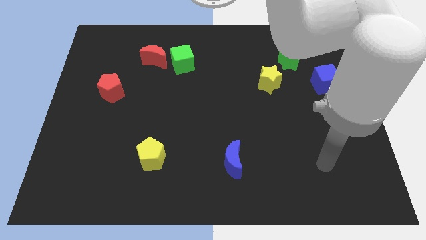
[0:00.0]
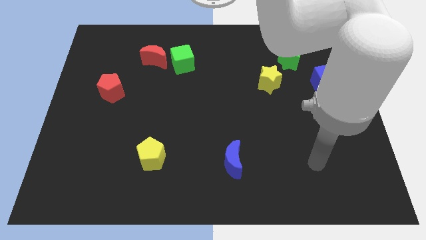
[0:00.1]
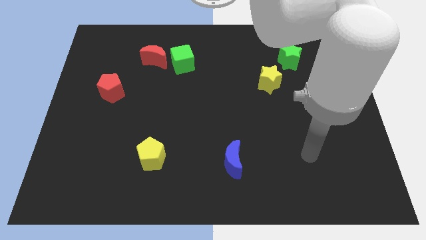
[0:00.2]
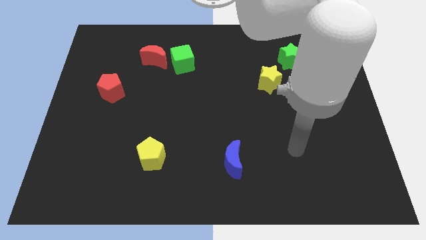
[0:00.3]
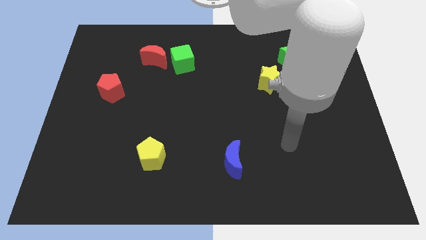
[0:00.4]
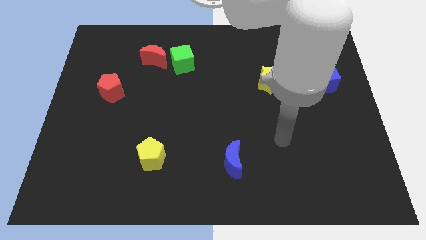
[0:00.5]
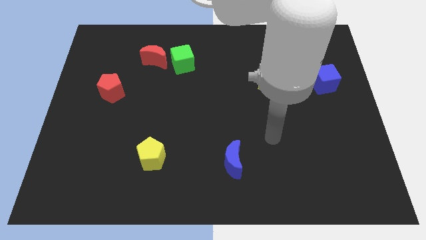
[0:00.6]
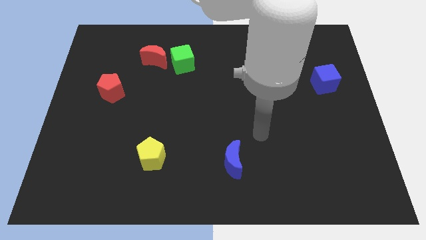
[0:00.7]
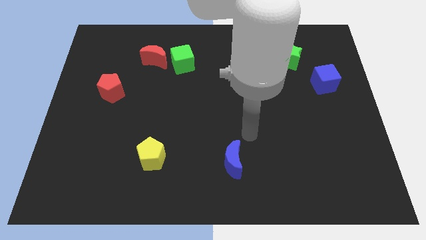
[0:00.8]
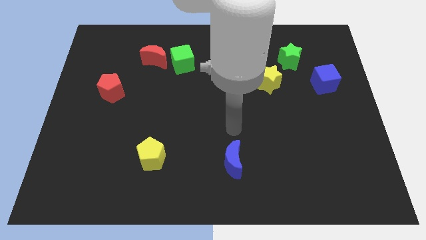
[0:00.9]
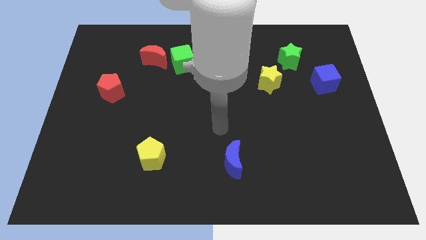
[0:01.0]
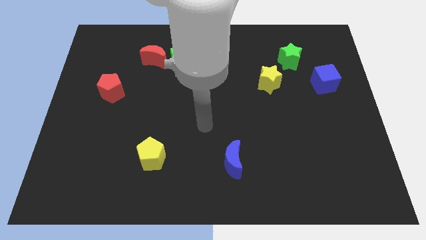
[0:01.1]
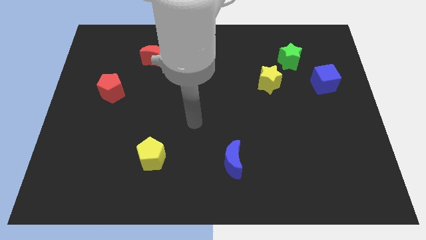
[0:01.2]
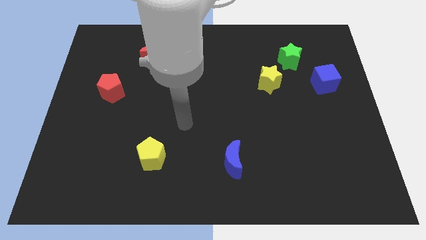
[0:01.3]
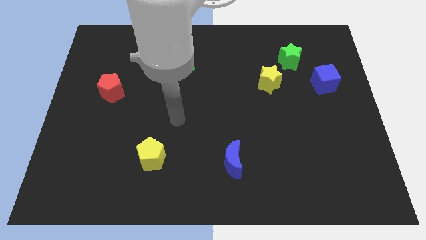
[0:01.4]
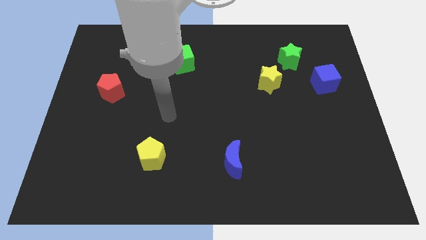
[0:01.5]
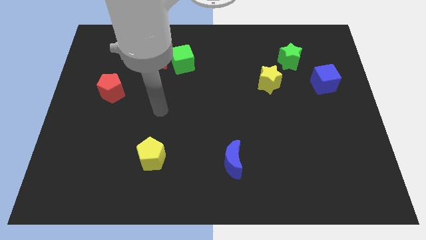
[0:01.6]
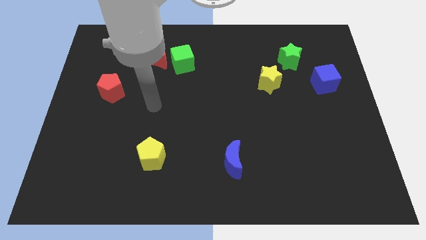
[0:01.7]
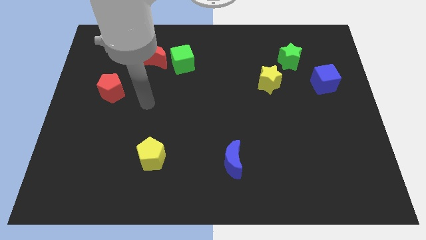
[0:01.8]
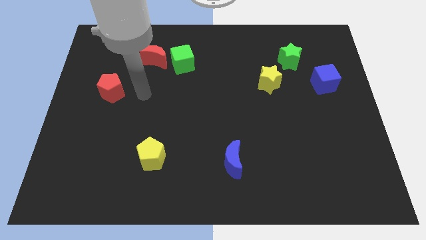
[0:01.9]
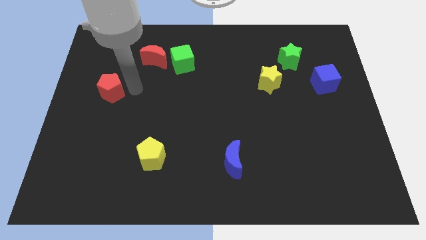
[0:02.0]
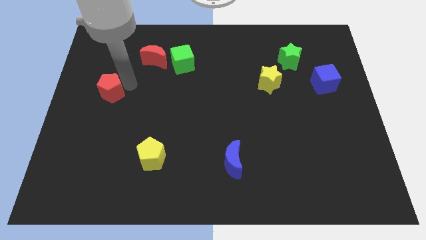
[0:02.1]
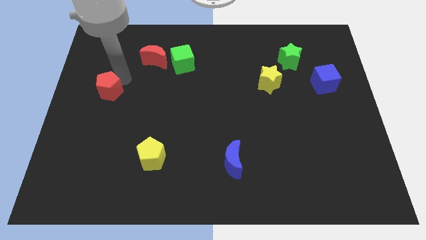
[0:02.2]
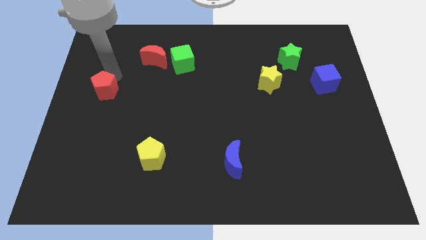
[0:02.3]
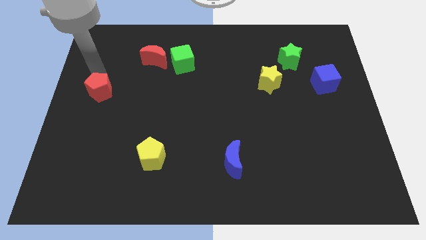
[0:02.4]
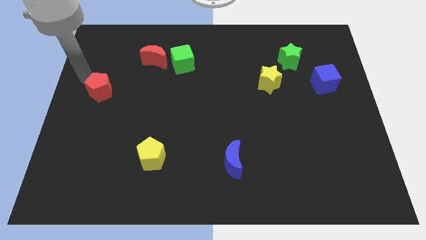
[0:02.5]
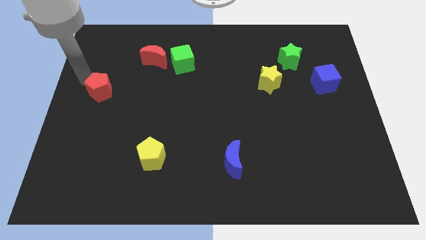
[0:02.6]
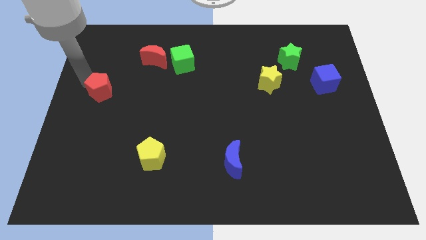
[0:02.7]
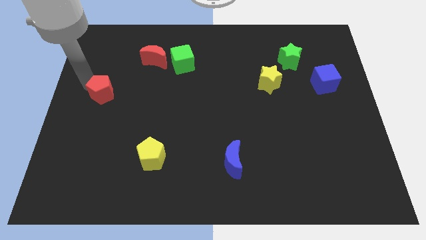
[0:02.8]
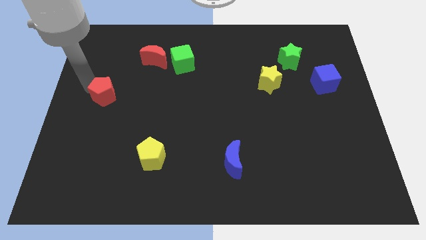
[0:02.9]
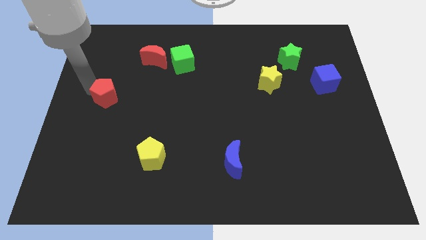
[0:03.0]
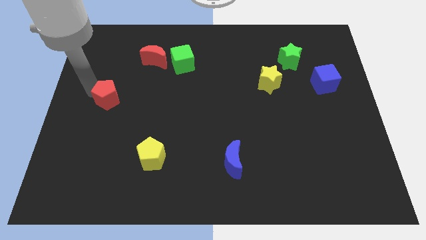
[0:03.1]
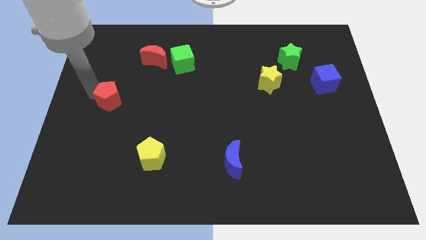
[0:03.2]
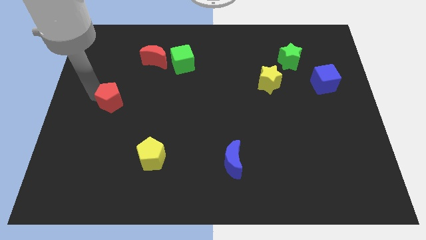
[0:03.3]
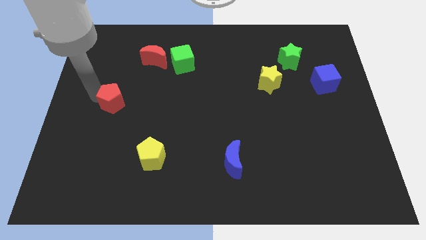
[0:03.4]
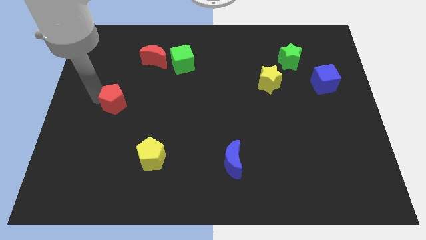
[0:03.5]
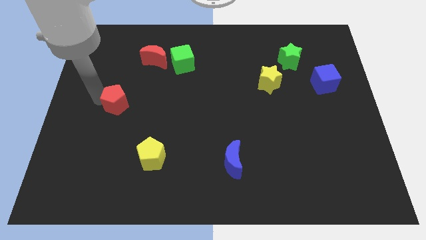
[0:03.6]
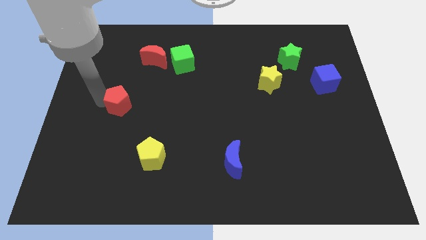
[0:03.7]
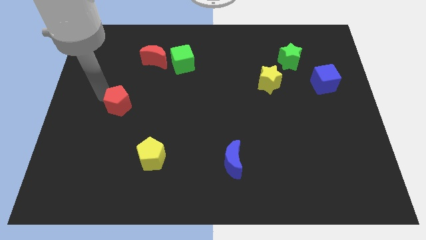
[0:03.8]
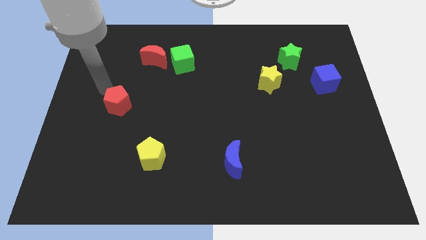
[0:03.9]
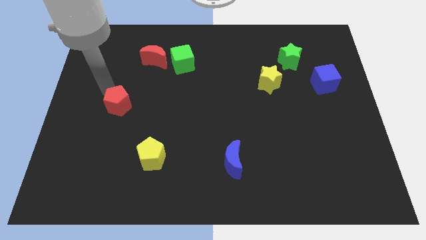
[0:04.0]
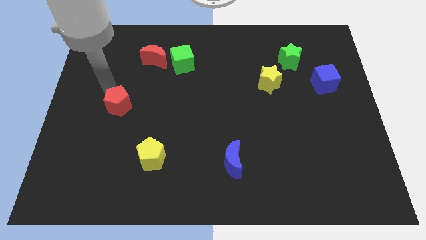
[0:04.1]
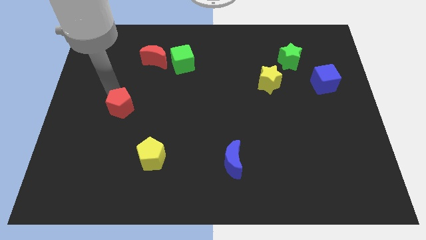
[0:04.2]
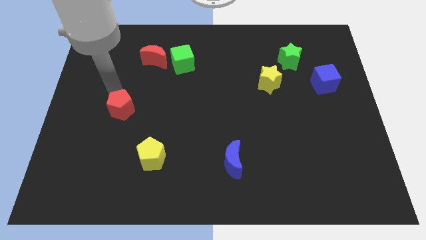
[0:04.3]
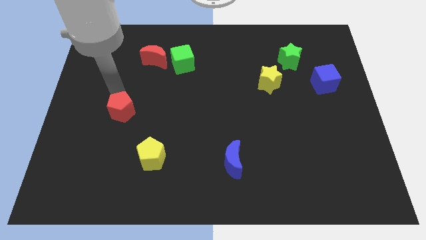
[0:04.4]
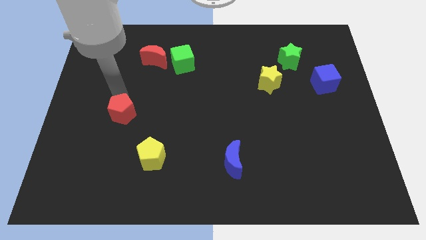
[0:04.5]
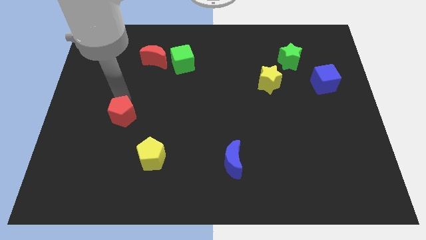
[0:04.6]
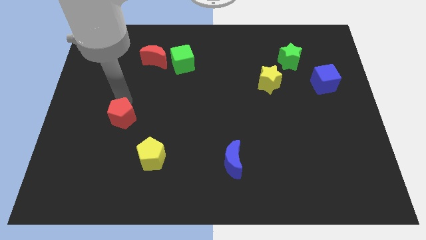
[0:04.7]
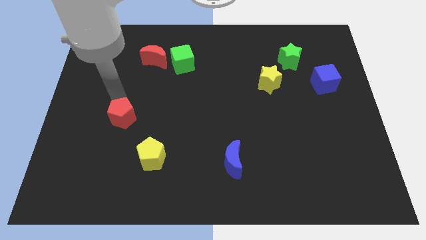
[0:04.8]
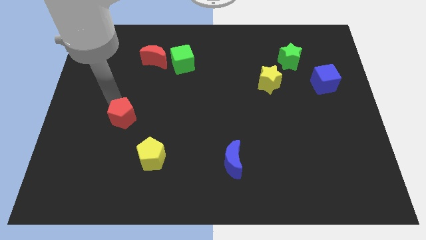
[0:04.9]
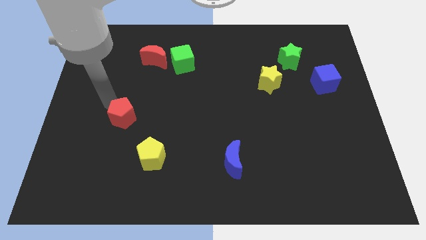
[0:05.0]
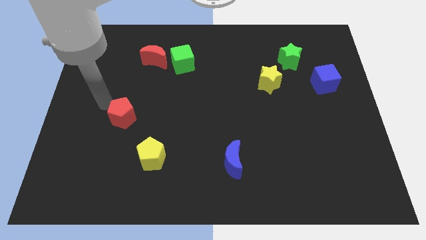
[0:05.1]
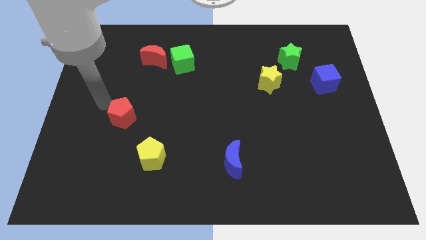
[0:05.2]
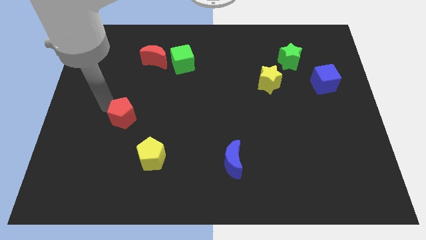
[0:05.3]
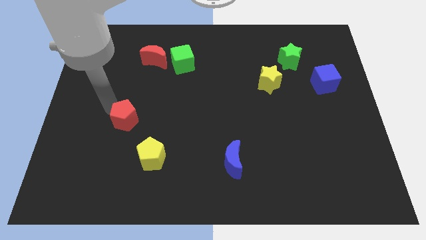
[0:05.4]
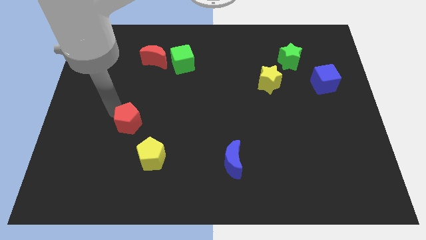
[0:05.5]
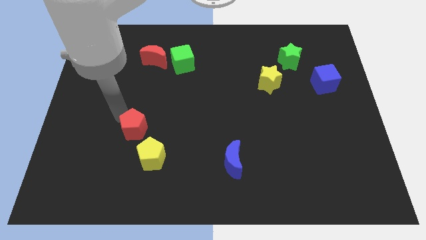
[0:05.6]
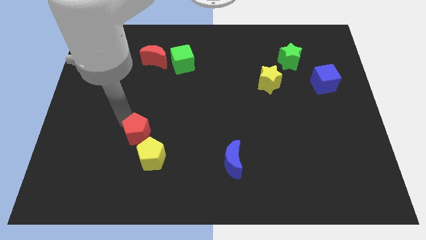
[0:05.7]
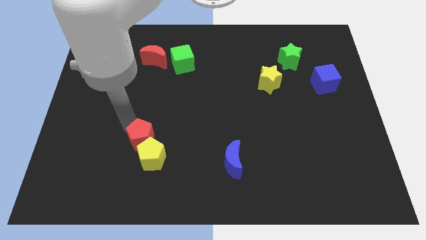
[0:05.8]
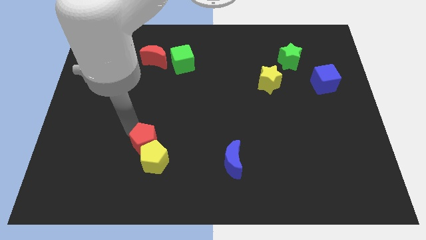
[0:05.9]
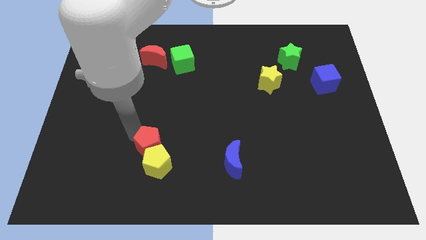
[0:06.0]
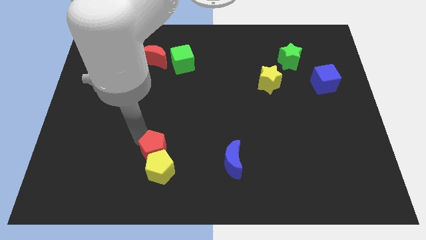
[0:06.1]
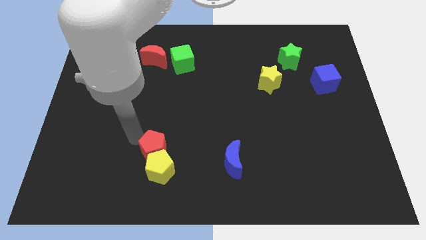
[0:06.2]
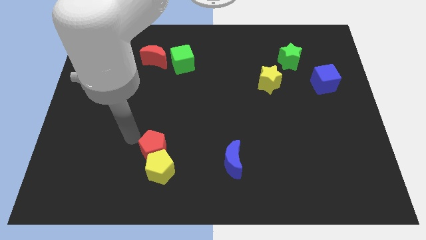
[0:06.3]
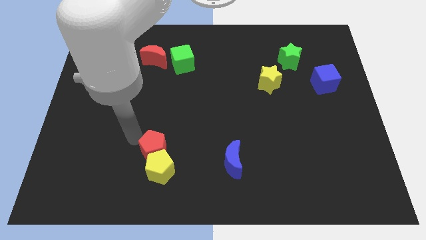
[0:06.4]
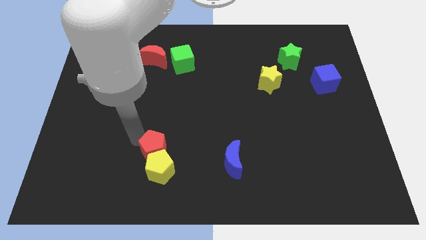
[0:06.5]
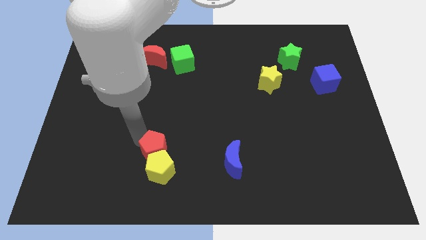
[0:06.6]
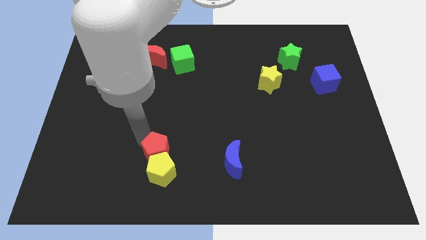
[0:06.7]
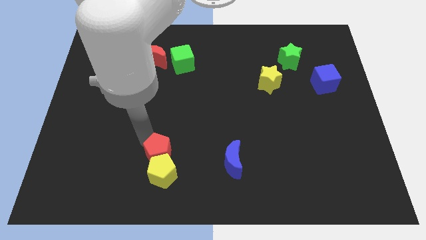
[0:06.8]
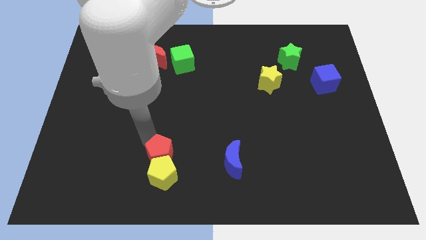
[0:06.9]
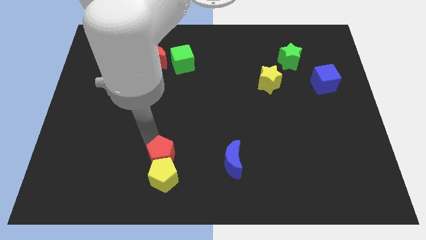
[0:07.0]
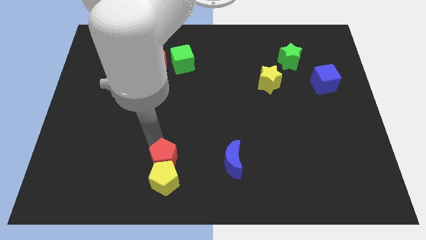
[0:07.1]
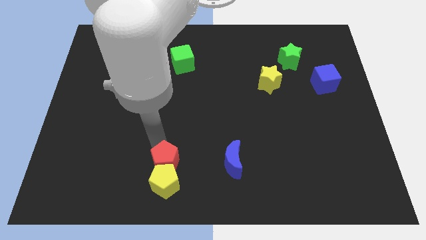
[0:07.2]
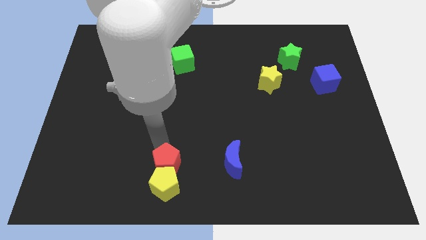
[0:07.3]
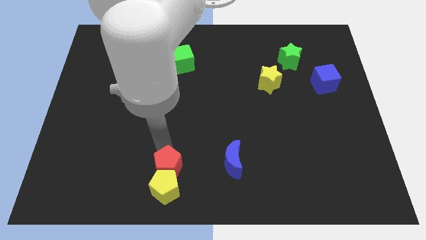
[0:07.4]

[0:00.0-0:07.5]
put the red pentagon to the bottom side

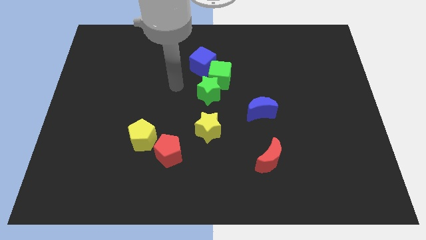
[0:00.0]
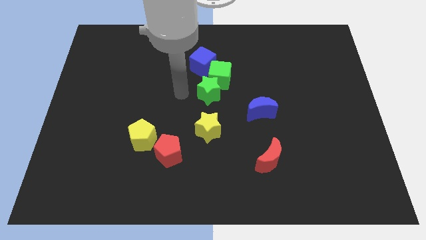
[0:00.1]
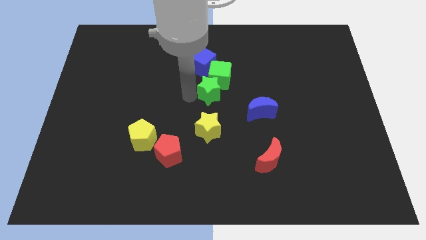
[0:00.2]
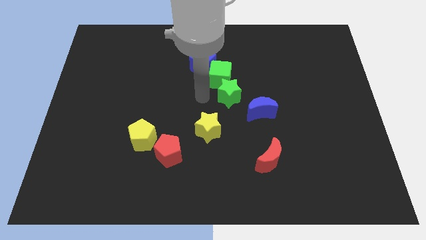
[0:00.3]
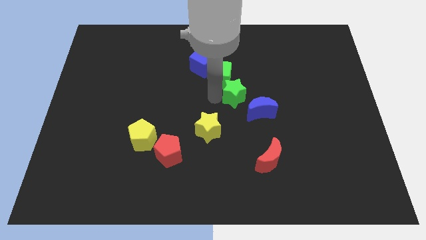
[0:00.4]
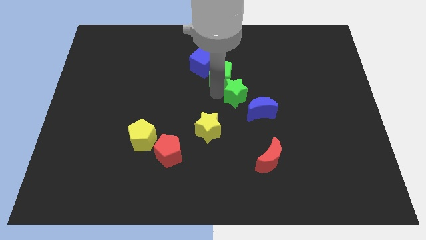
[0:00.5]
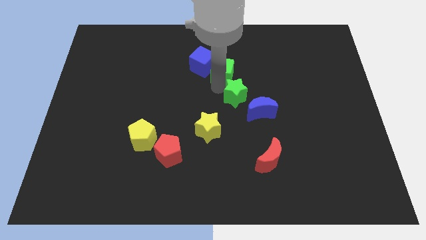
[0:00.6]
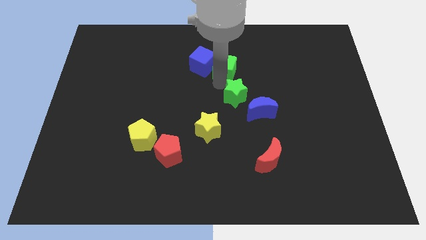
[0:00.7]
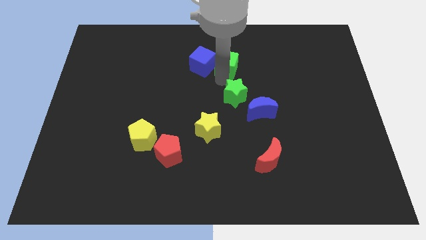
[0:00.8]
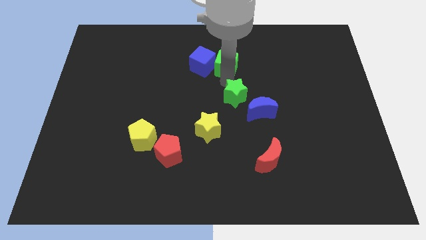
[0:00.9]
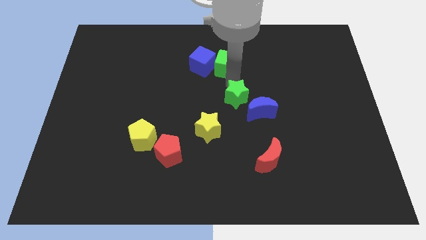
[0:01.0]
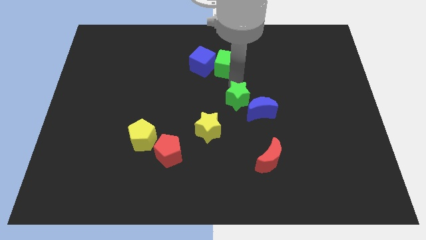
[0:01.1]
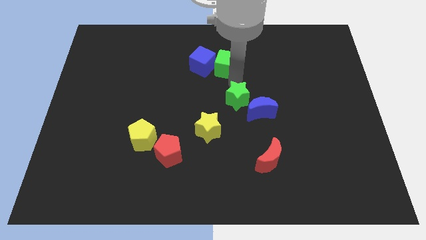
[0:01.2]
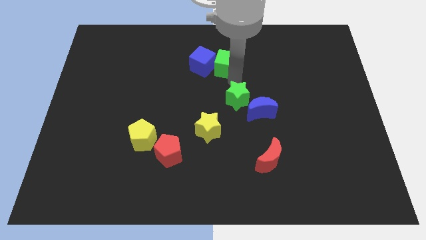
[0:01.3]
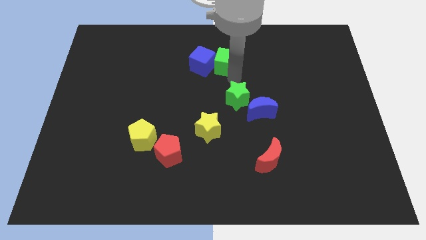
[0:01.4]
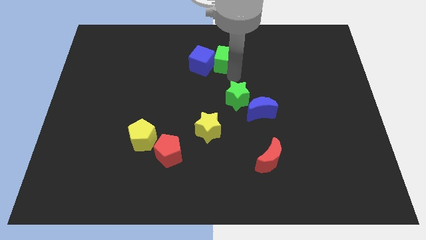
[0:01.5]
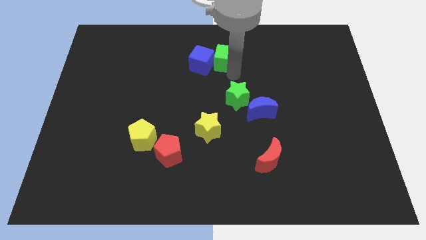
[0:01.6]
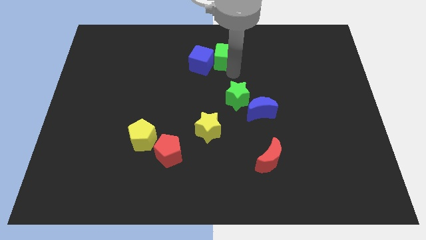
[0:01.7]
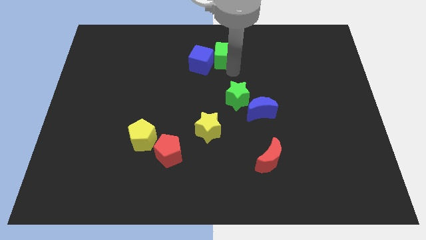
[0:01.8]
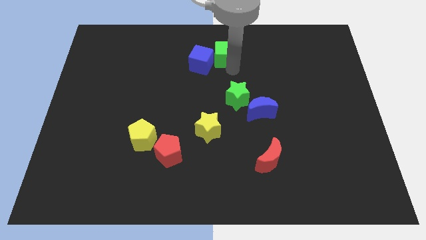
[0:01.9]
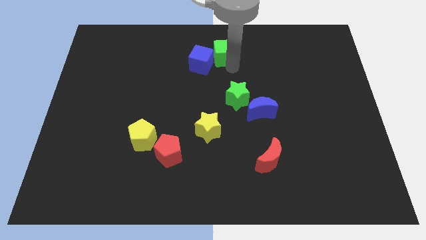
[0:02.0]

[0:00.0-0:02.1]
put the green cube to the towards your base
